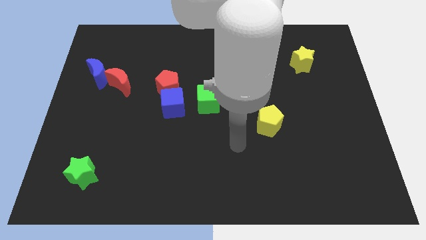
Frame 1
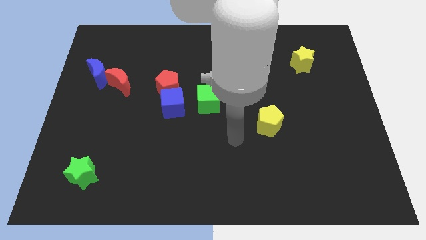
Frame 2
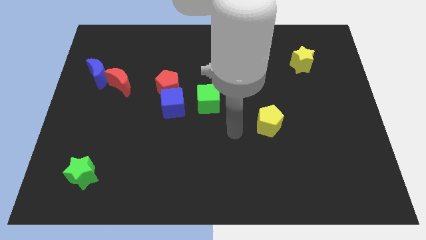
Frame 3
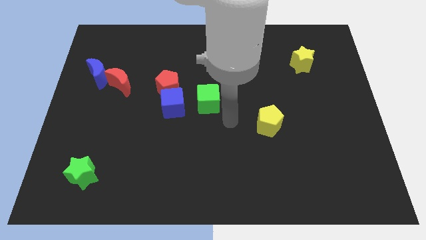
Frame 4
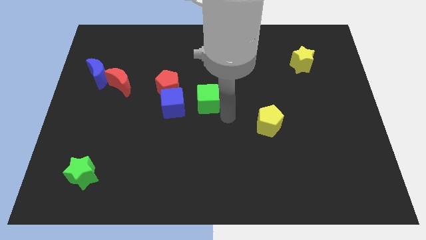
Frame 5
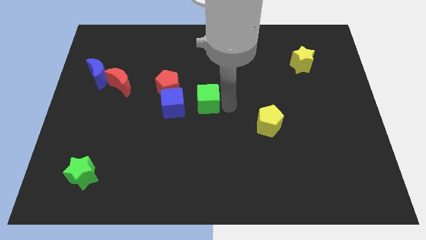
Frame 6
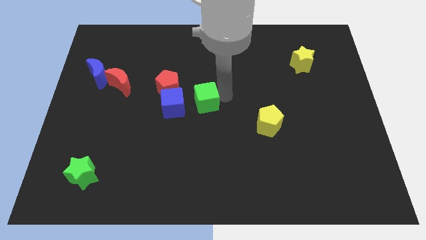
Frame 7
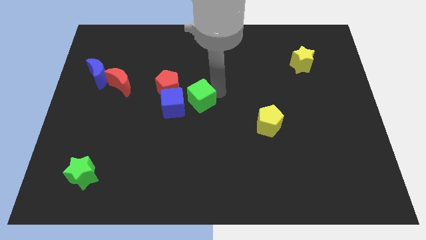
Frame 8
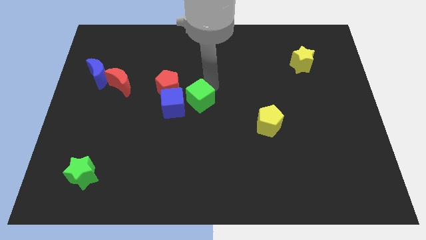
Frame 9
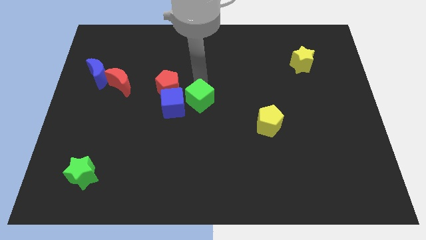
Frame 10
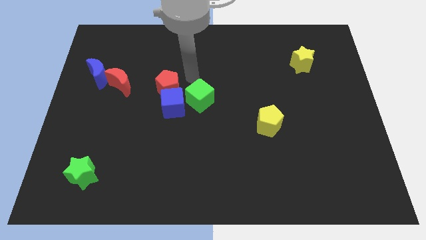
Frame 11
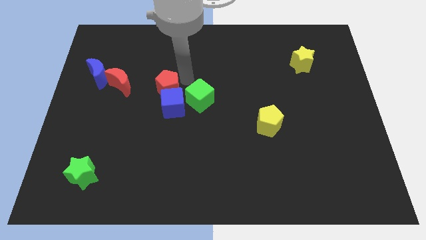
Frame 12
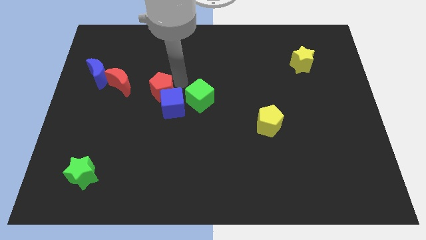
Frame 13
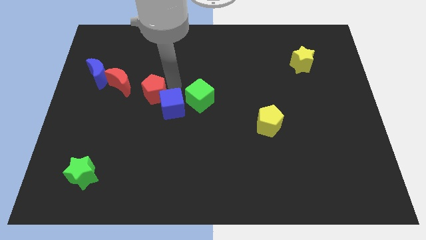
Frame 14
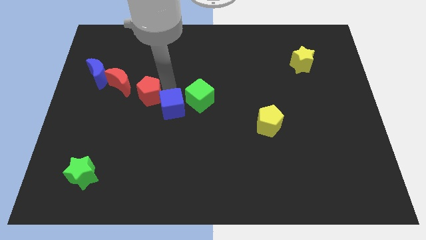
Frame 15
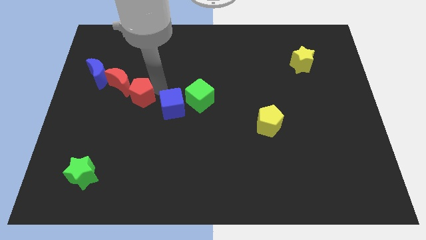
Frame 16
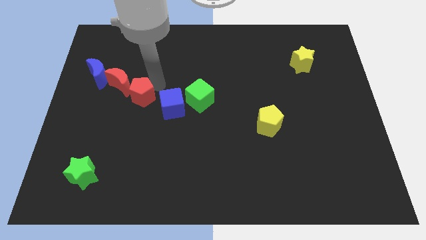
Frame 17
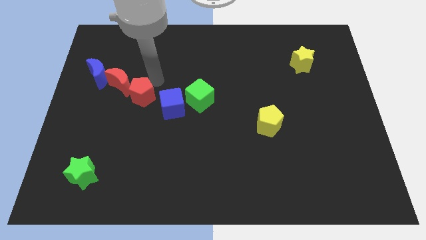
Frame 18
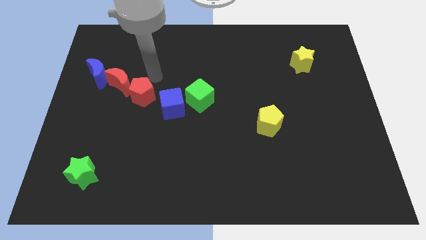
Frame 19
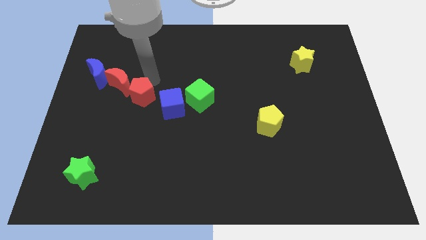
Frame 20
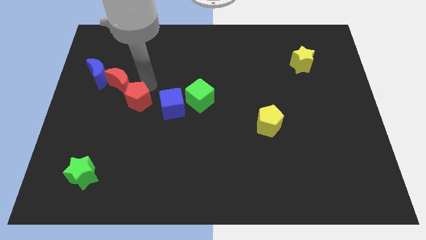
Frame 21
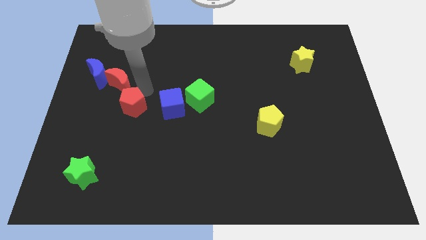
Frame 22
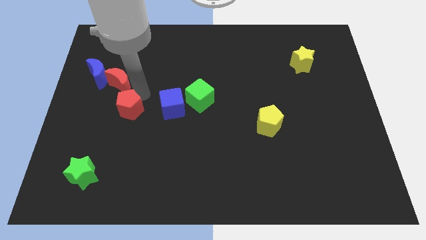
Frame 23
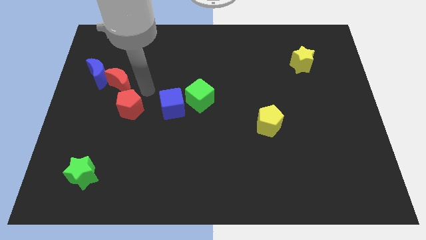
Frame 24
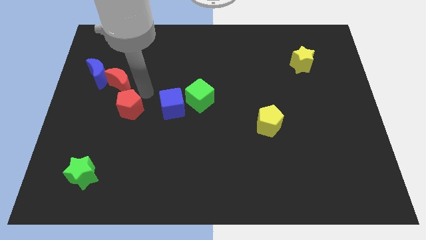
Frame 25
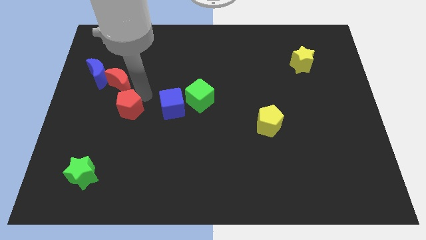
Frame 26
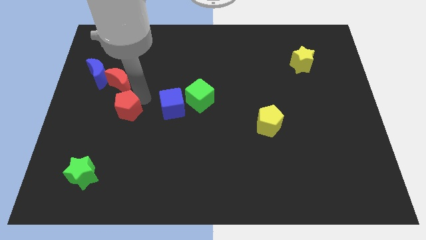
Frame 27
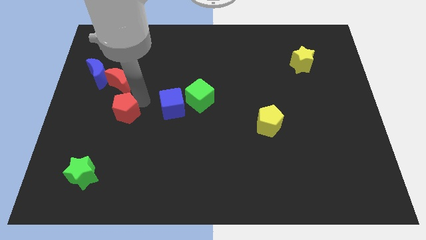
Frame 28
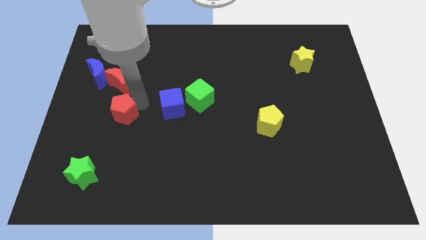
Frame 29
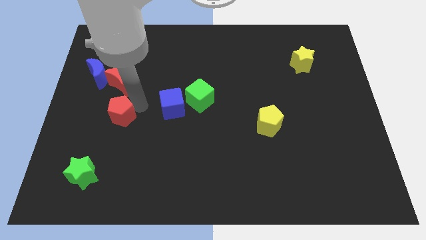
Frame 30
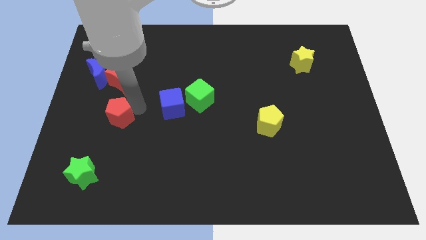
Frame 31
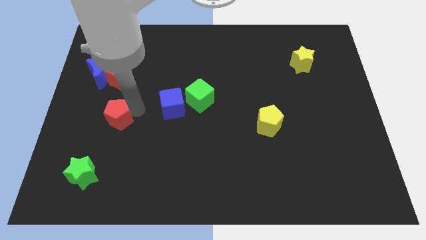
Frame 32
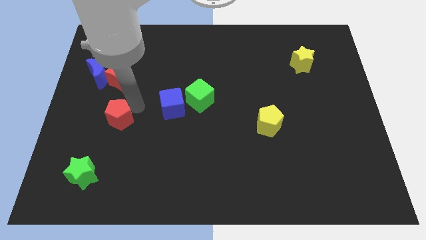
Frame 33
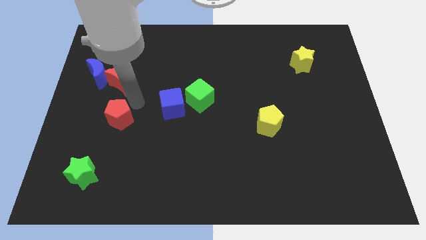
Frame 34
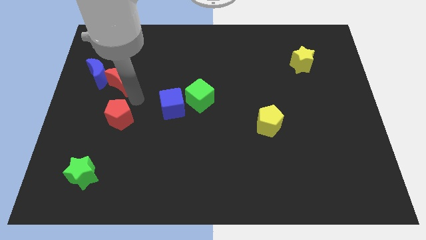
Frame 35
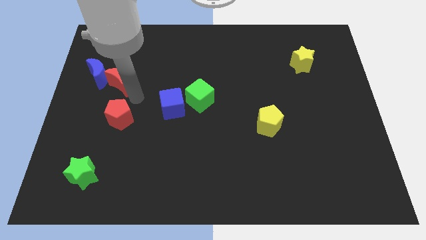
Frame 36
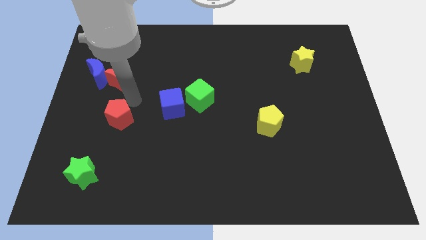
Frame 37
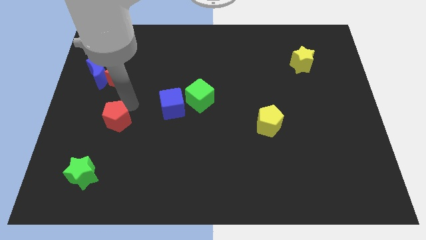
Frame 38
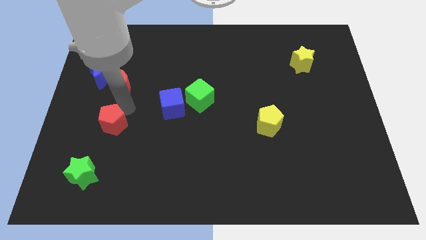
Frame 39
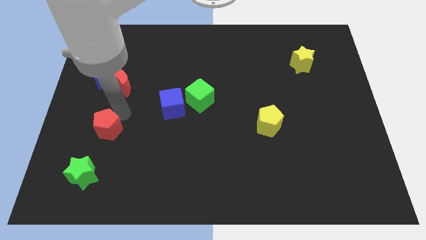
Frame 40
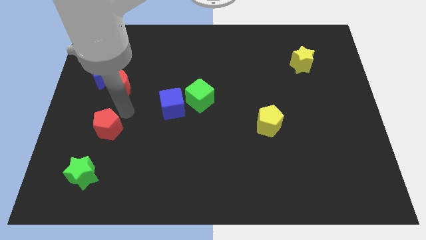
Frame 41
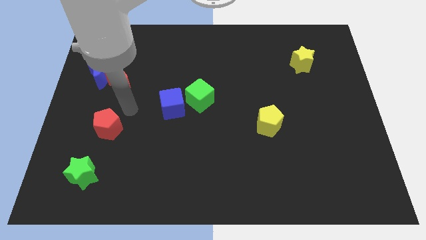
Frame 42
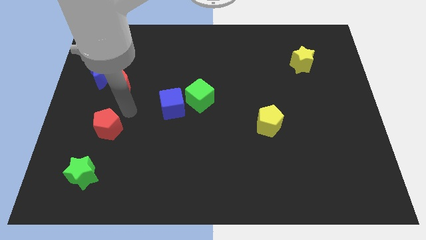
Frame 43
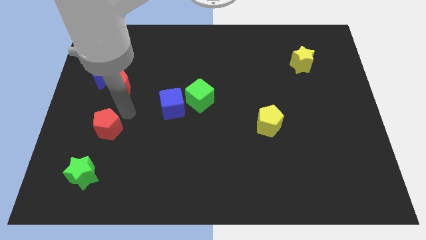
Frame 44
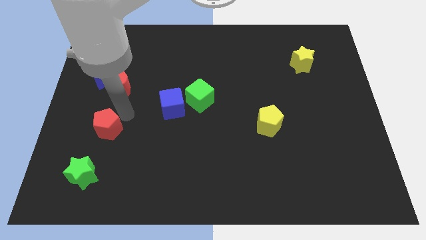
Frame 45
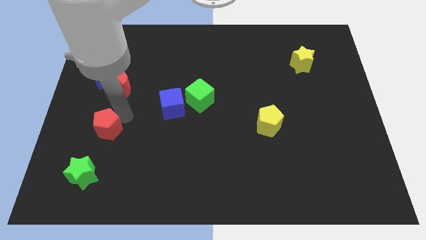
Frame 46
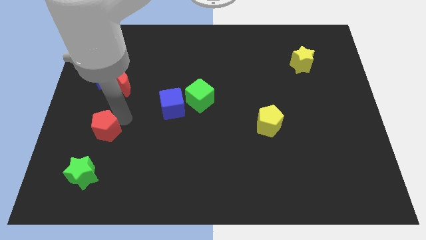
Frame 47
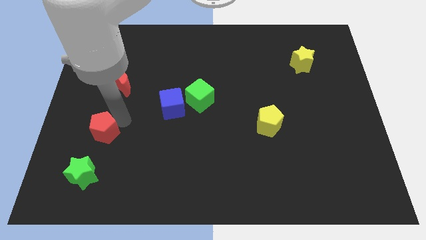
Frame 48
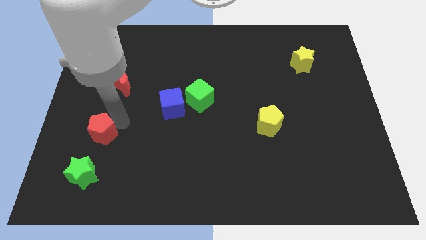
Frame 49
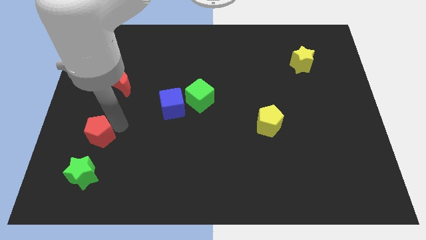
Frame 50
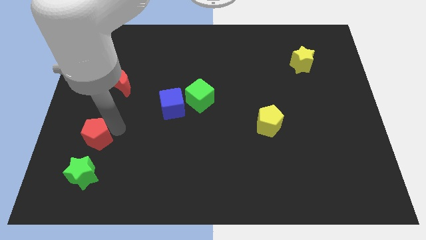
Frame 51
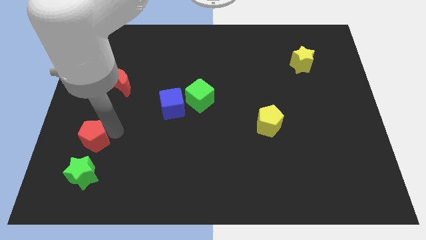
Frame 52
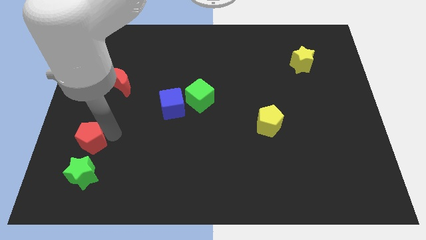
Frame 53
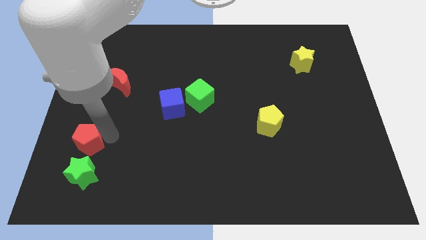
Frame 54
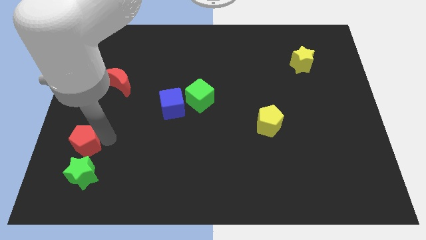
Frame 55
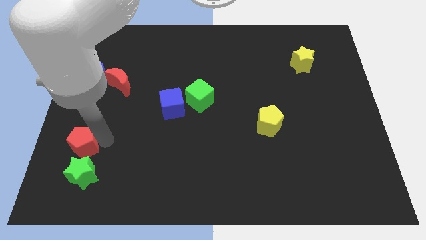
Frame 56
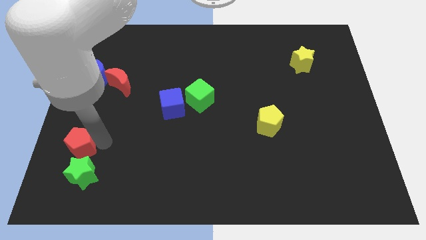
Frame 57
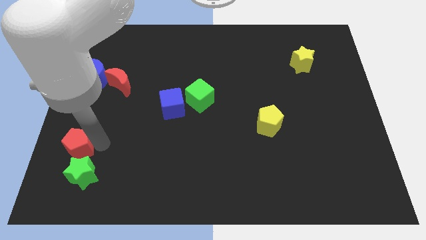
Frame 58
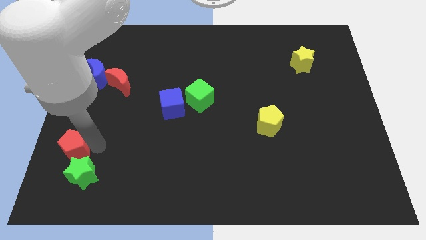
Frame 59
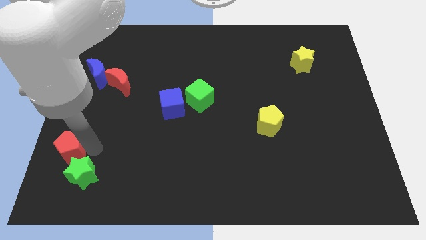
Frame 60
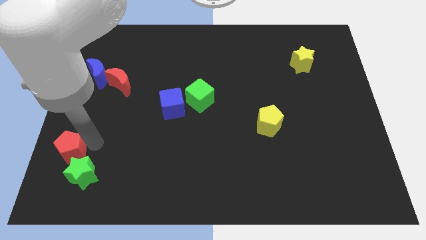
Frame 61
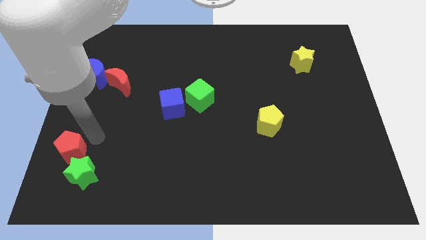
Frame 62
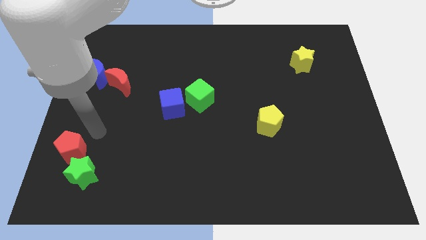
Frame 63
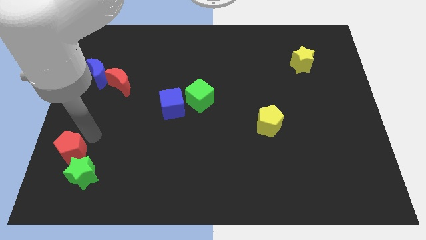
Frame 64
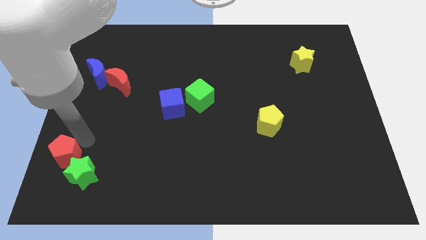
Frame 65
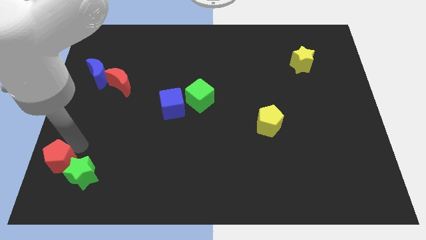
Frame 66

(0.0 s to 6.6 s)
move the red pentagon to the lower left corner

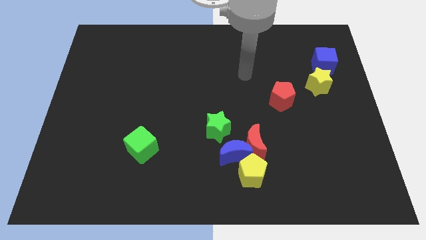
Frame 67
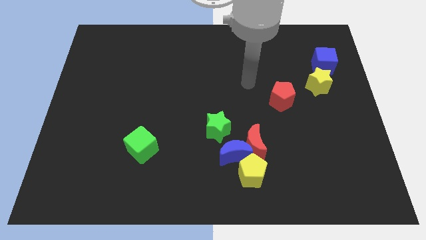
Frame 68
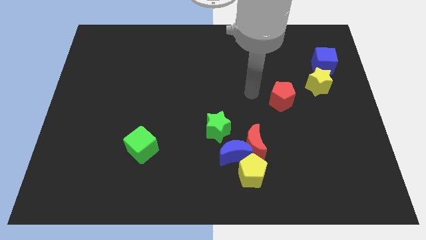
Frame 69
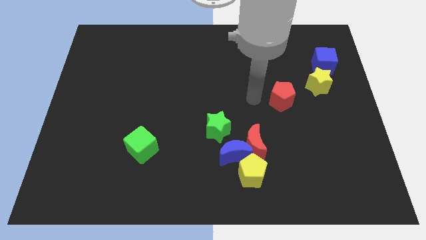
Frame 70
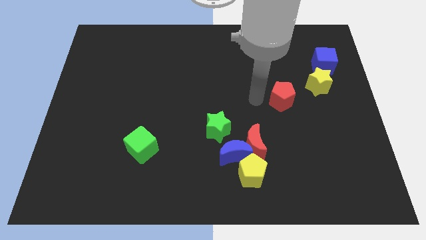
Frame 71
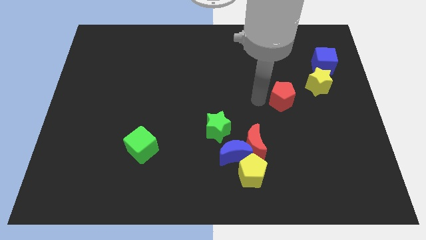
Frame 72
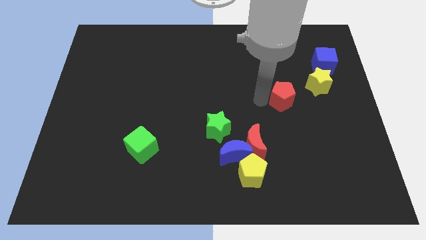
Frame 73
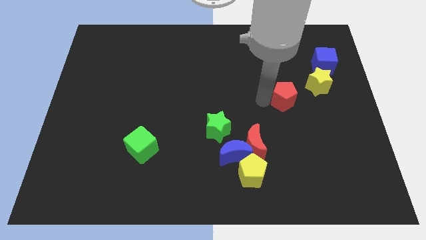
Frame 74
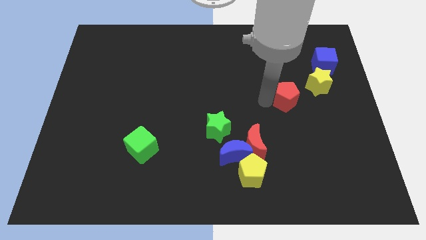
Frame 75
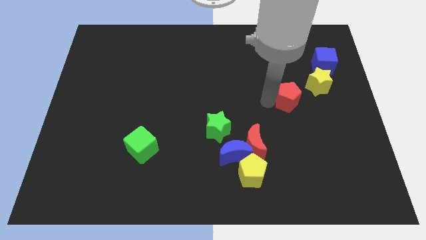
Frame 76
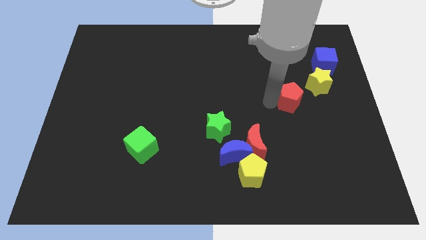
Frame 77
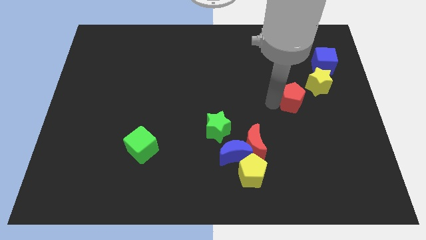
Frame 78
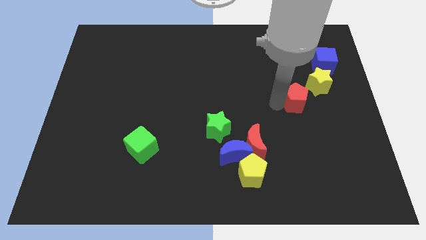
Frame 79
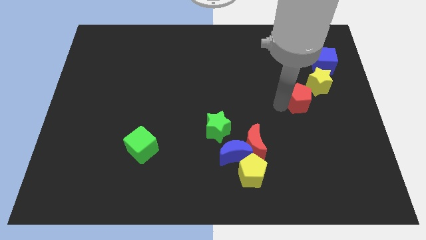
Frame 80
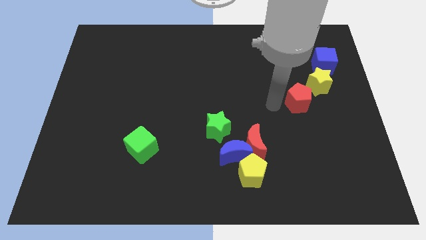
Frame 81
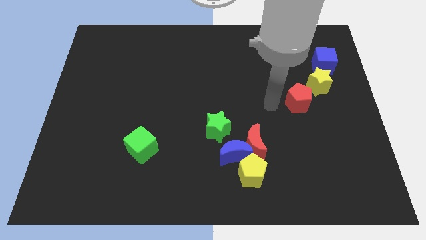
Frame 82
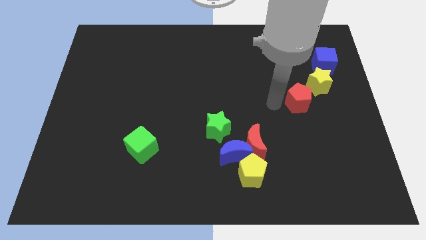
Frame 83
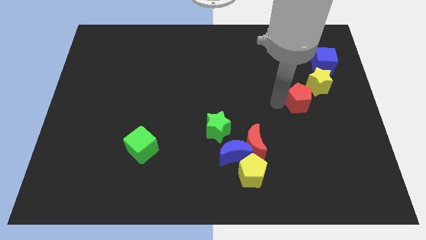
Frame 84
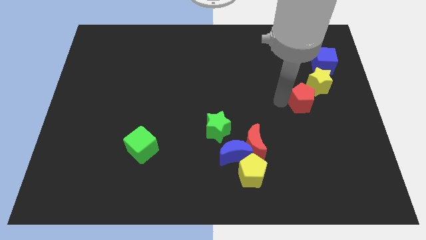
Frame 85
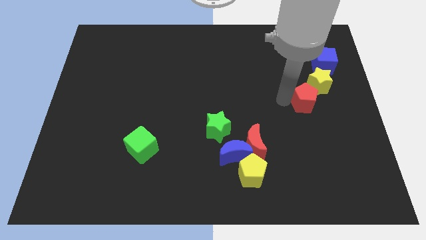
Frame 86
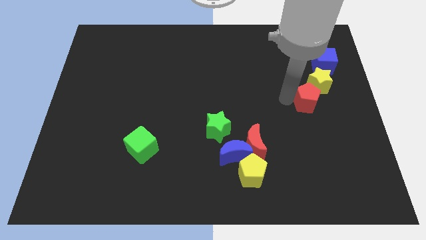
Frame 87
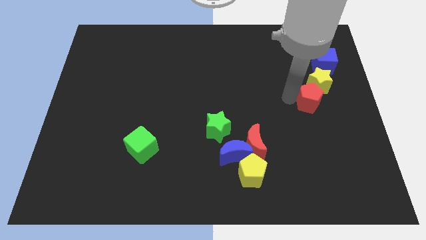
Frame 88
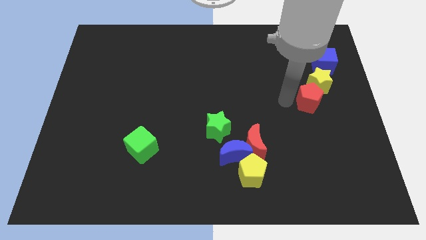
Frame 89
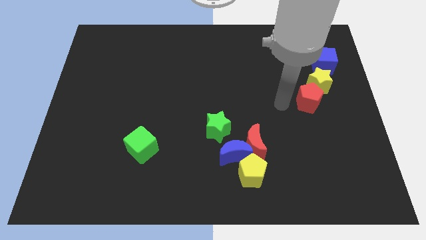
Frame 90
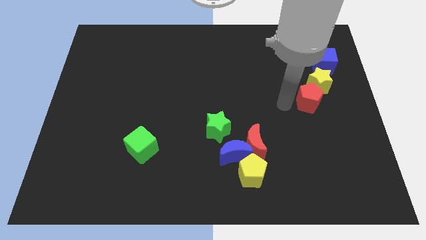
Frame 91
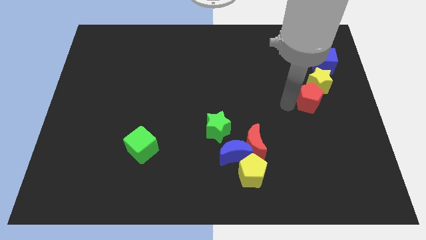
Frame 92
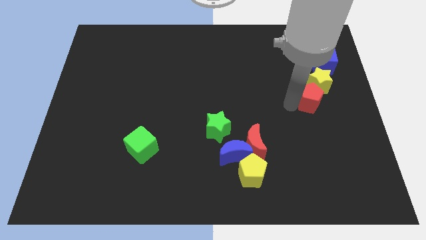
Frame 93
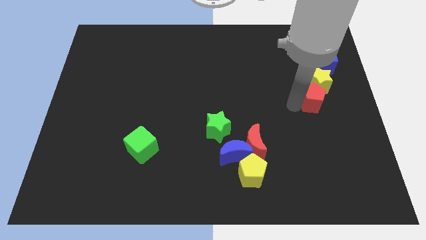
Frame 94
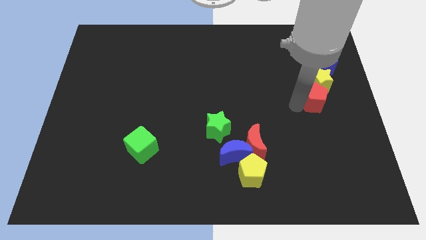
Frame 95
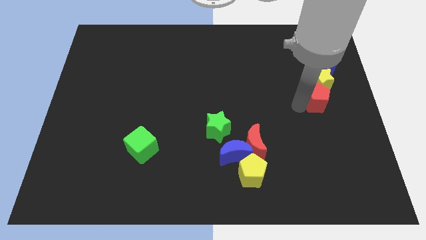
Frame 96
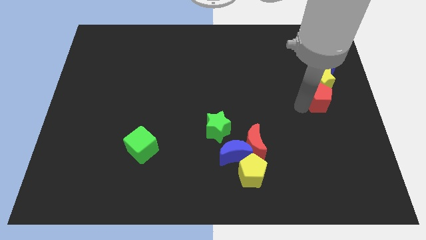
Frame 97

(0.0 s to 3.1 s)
move the red pentagon to the right side of the board
